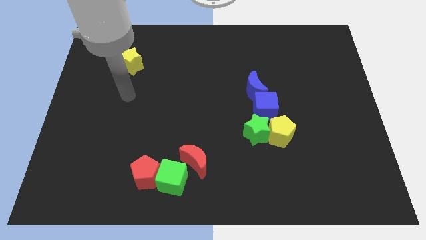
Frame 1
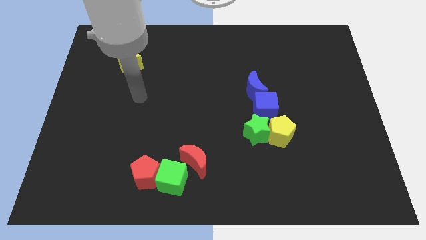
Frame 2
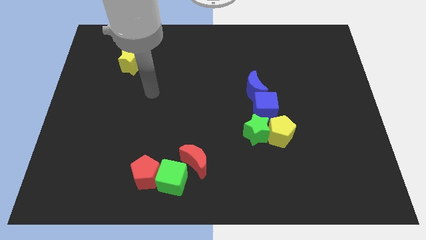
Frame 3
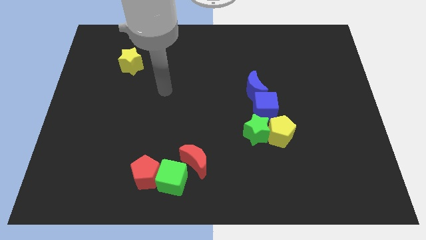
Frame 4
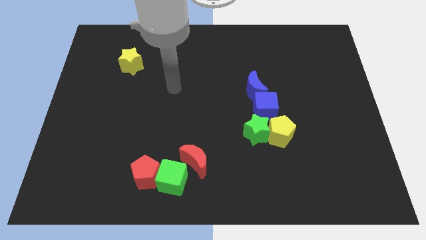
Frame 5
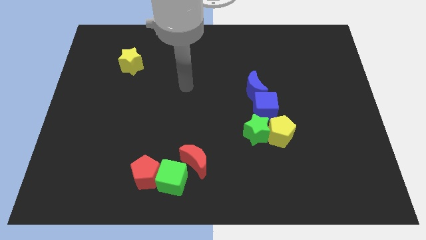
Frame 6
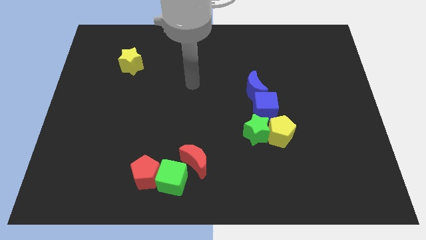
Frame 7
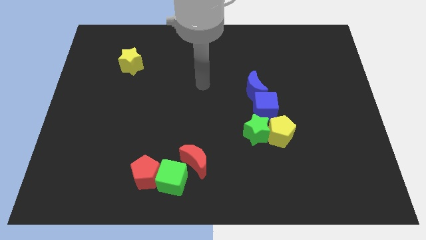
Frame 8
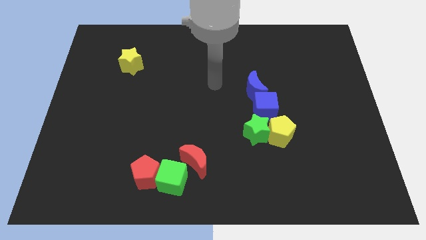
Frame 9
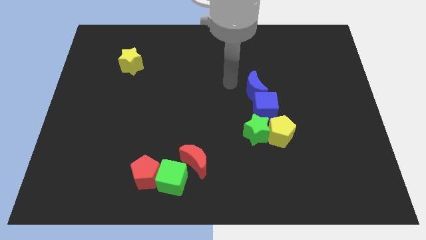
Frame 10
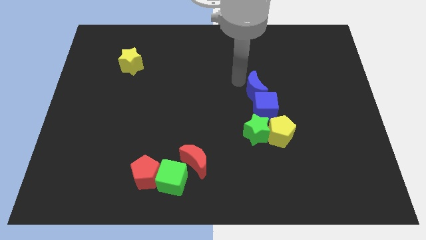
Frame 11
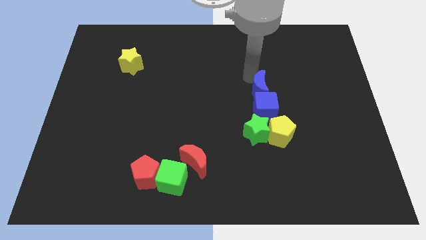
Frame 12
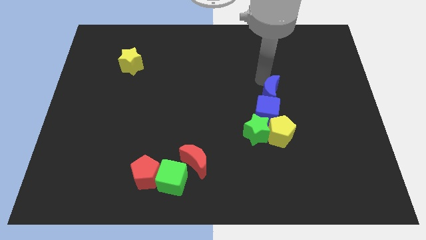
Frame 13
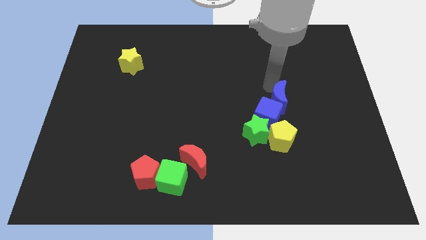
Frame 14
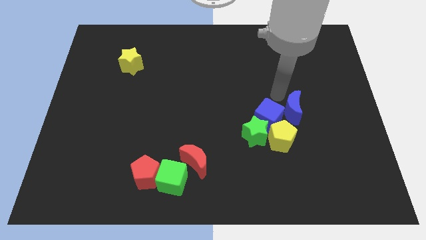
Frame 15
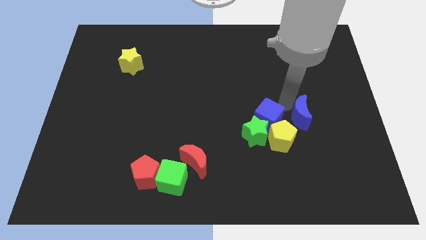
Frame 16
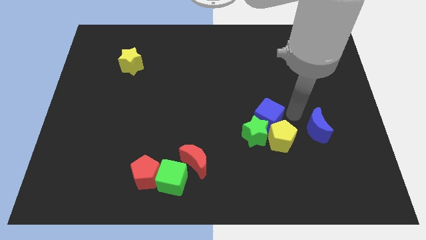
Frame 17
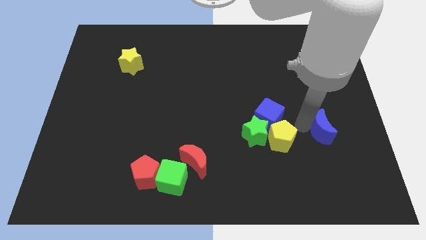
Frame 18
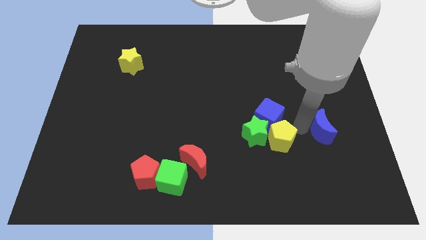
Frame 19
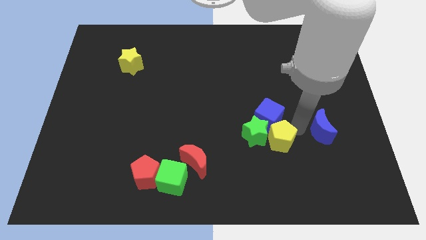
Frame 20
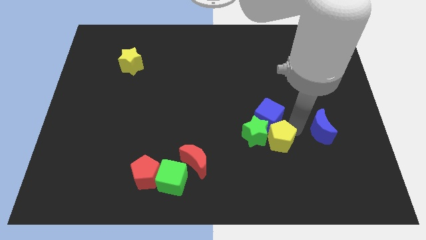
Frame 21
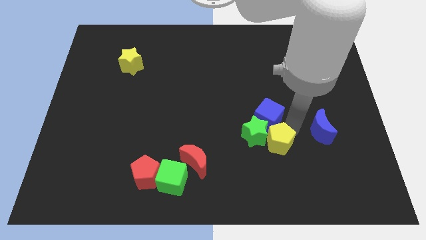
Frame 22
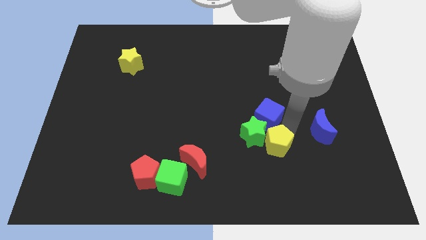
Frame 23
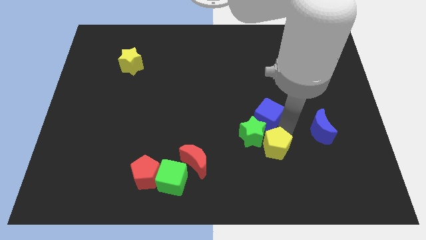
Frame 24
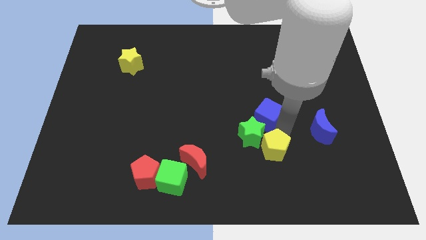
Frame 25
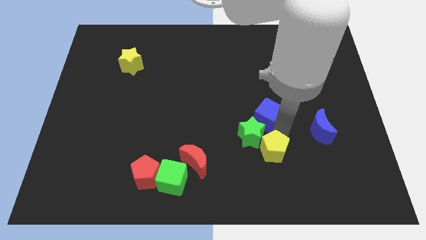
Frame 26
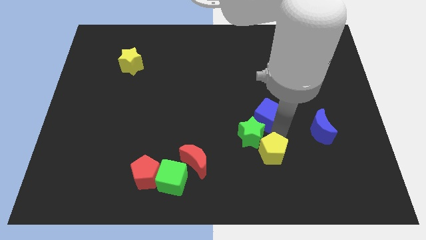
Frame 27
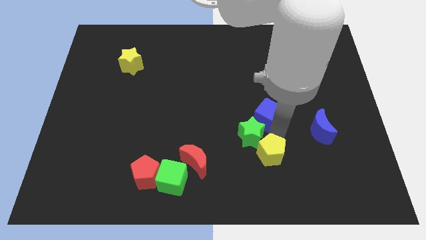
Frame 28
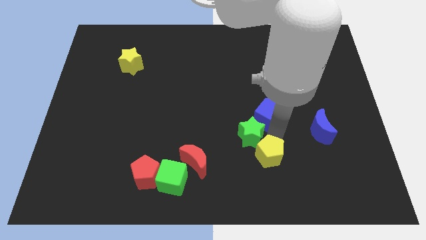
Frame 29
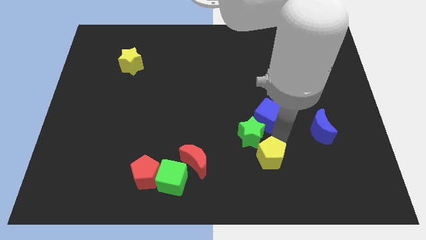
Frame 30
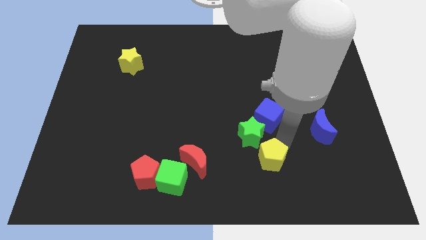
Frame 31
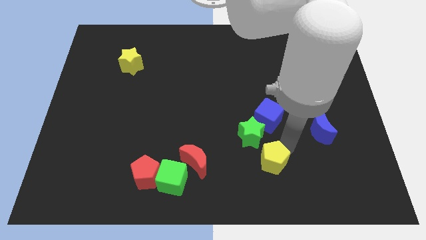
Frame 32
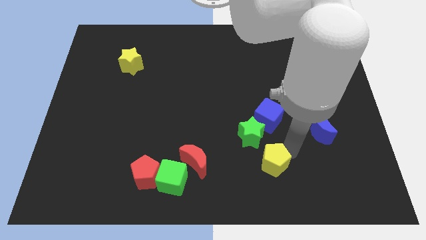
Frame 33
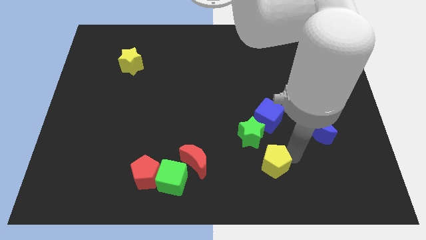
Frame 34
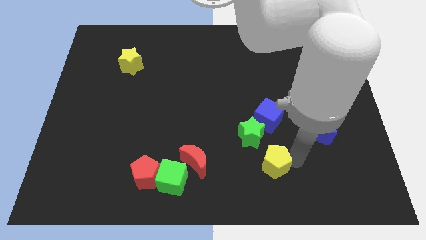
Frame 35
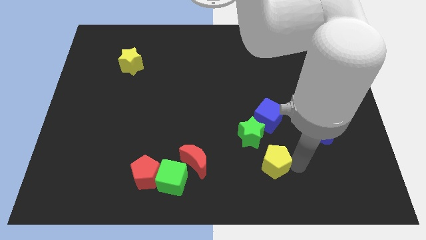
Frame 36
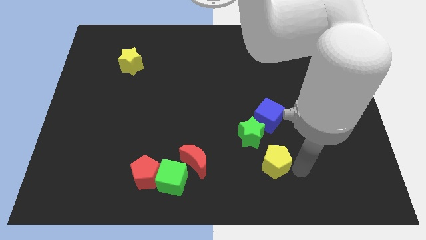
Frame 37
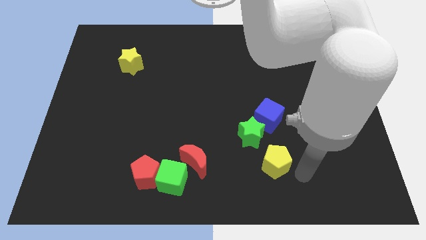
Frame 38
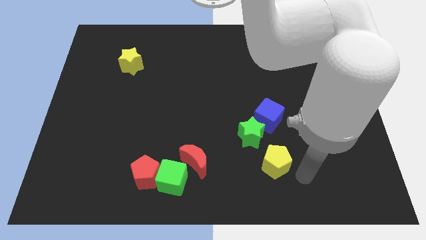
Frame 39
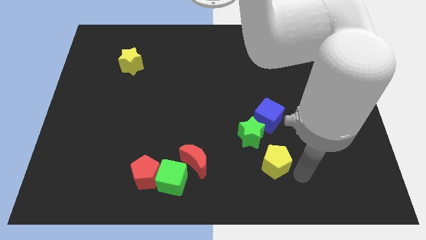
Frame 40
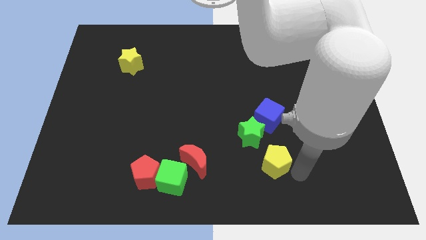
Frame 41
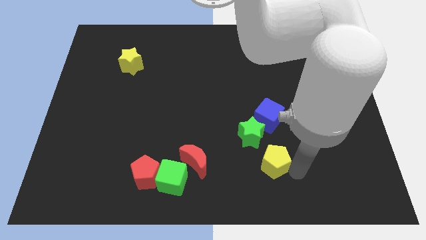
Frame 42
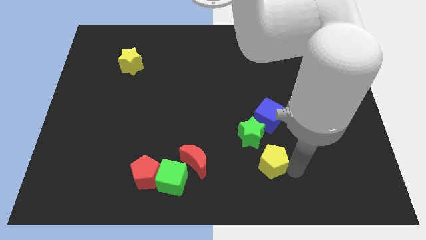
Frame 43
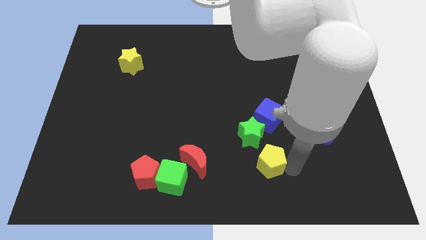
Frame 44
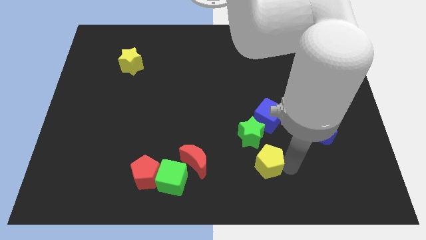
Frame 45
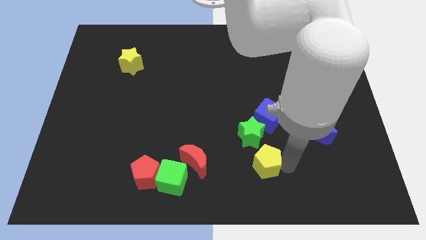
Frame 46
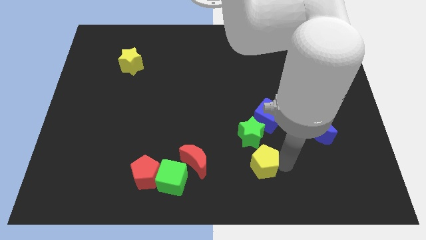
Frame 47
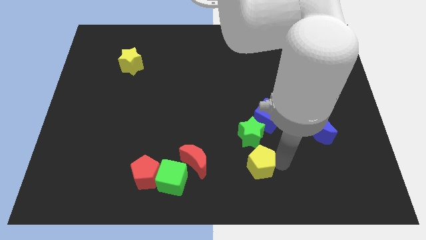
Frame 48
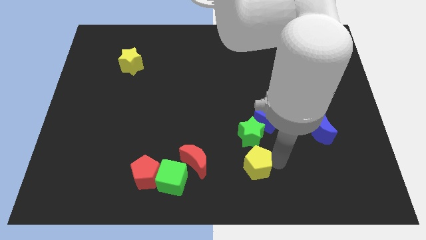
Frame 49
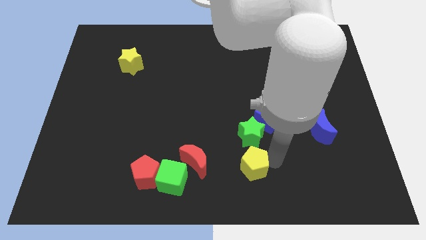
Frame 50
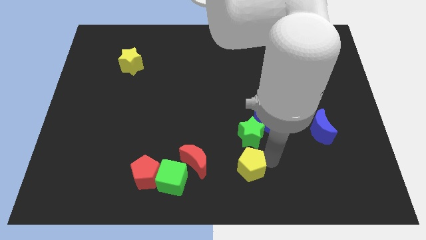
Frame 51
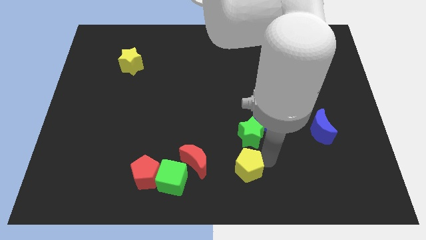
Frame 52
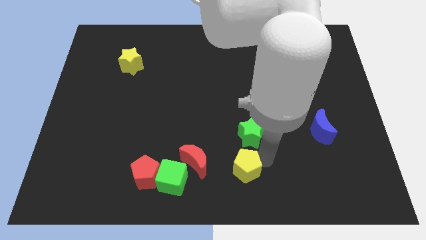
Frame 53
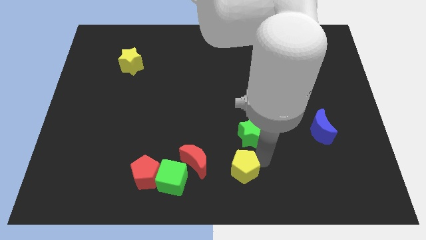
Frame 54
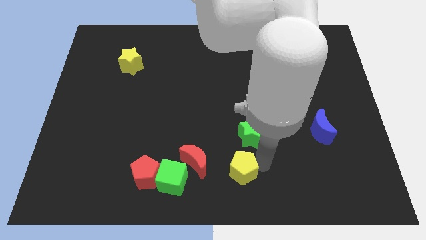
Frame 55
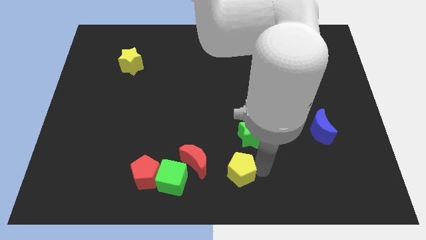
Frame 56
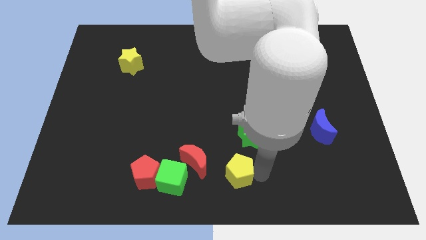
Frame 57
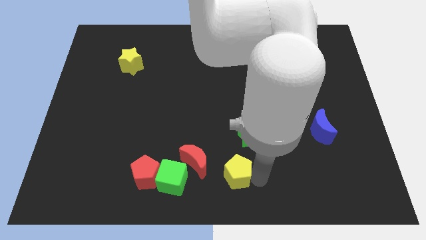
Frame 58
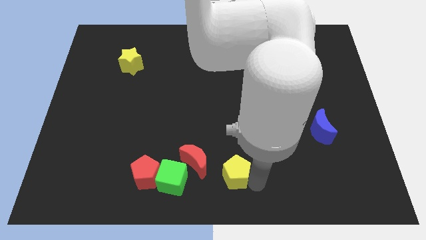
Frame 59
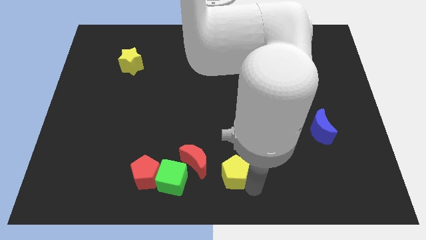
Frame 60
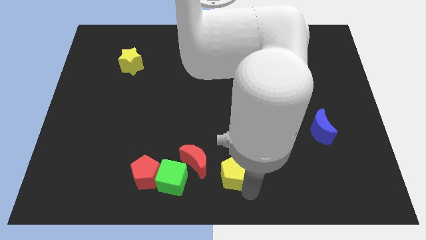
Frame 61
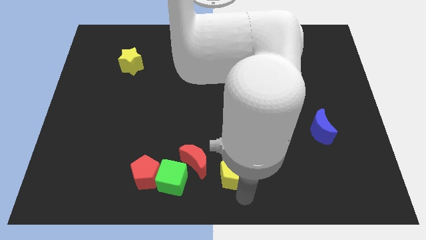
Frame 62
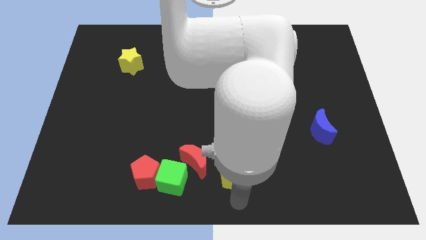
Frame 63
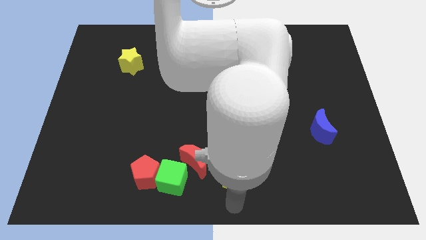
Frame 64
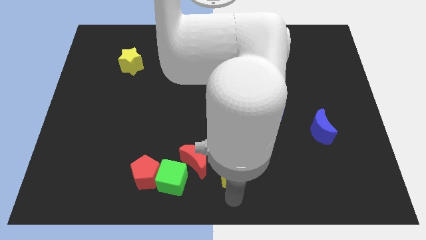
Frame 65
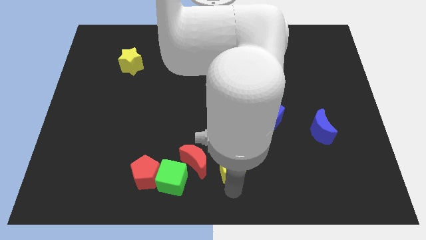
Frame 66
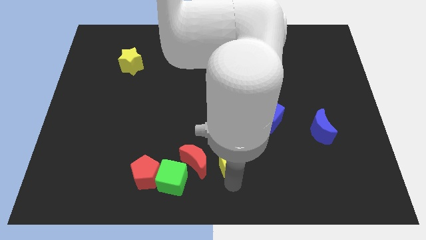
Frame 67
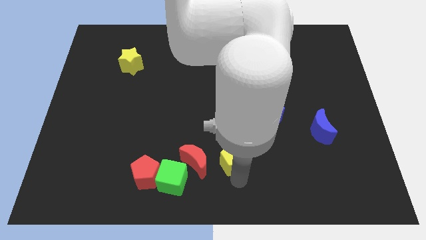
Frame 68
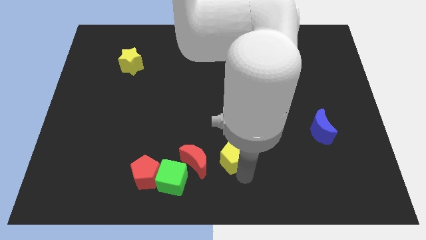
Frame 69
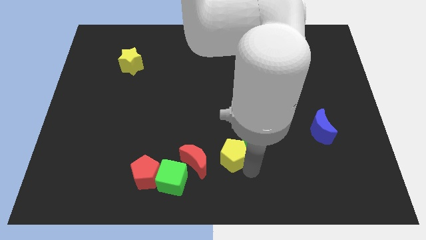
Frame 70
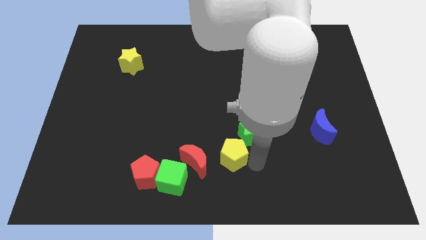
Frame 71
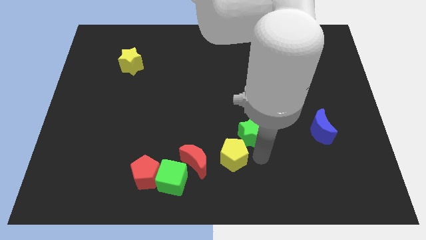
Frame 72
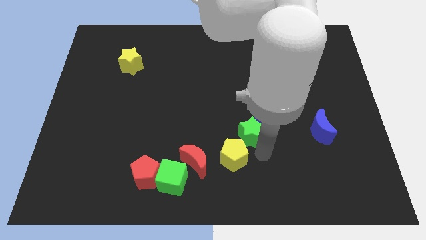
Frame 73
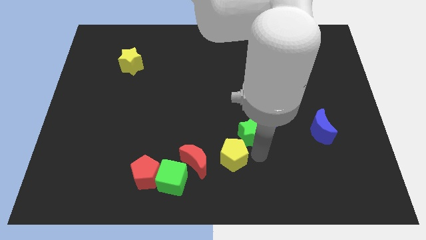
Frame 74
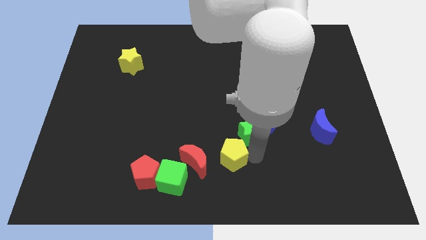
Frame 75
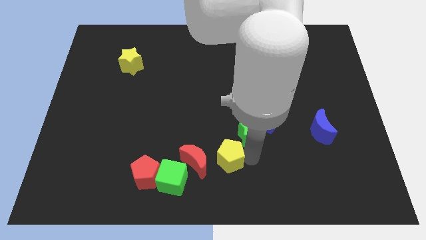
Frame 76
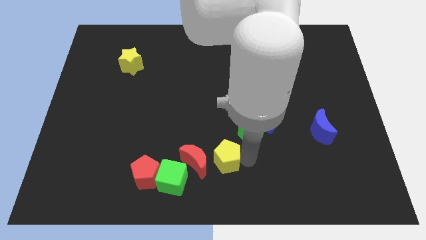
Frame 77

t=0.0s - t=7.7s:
put the yellow pentagon to the red moon
